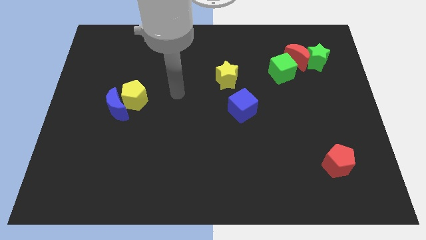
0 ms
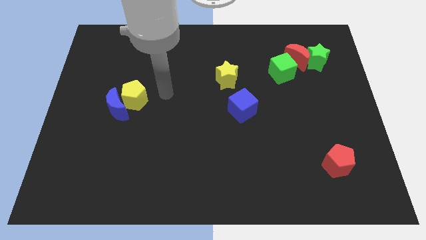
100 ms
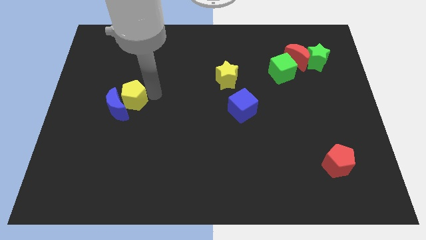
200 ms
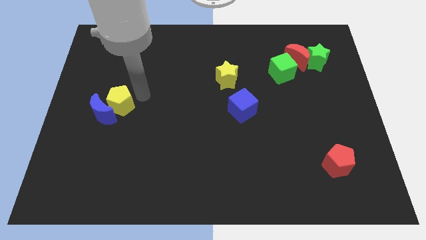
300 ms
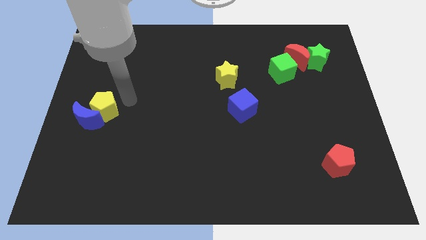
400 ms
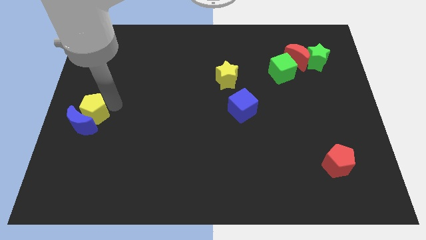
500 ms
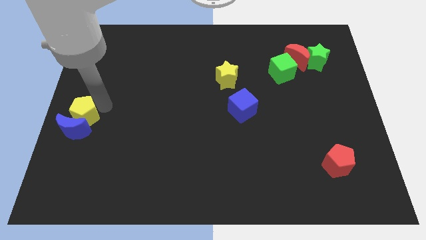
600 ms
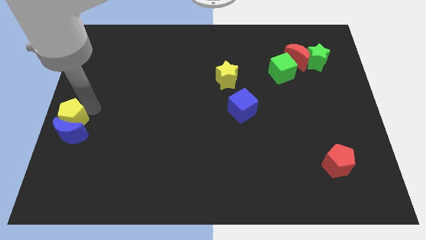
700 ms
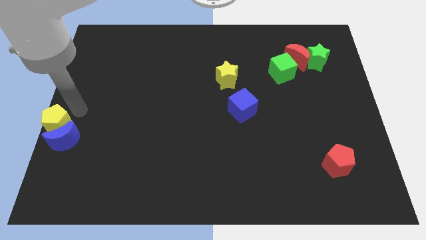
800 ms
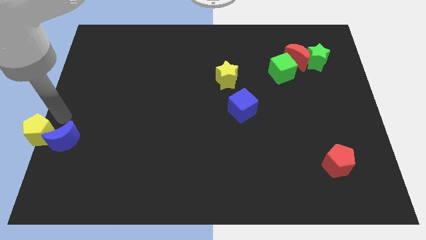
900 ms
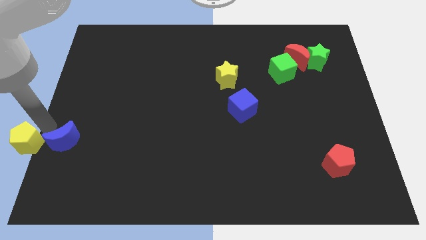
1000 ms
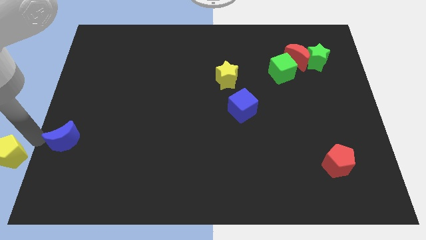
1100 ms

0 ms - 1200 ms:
move the blue moon away from the yellow pentagon

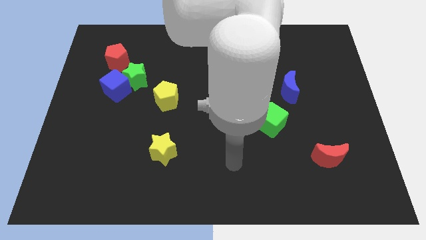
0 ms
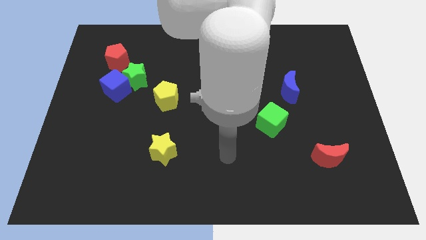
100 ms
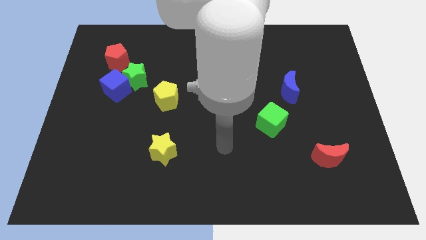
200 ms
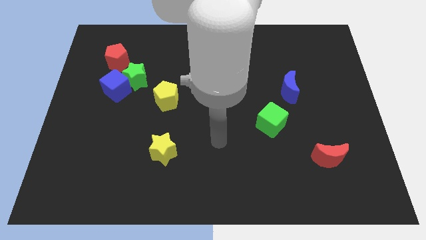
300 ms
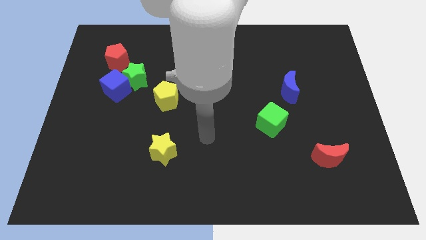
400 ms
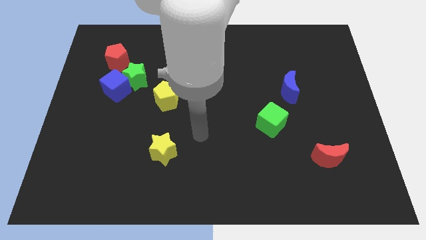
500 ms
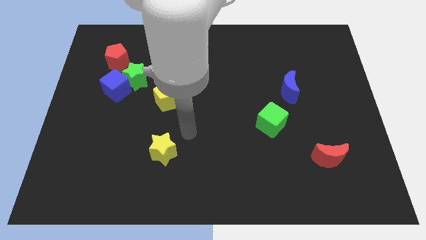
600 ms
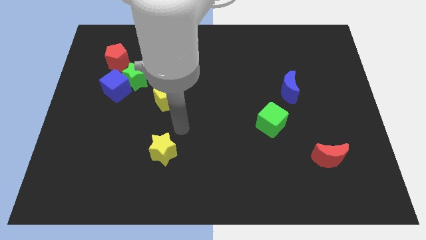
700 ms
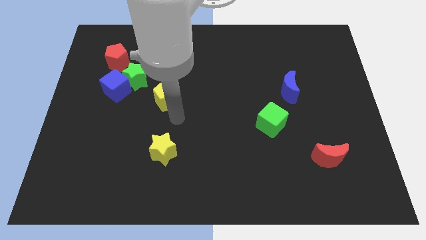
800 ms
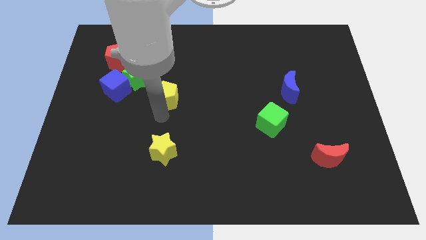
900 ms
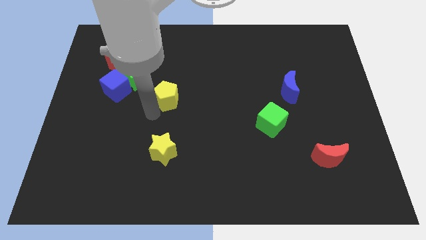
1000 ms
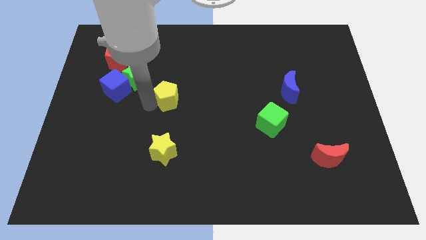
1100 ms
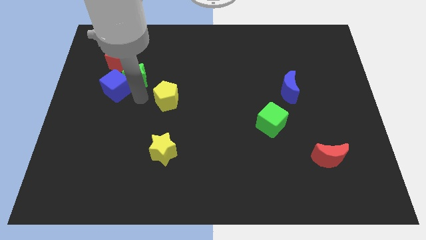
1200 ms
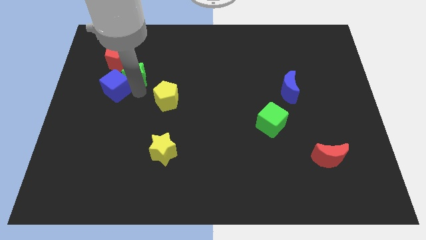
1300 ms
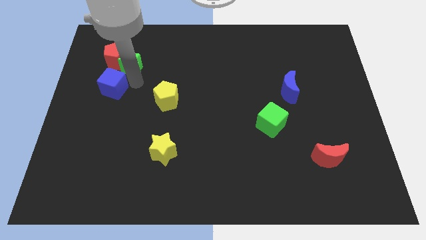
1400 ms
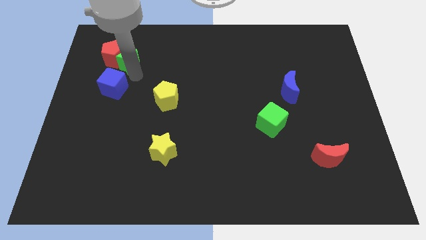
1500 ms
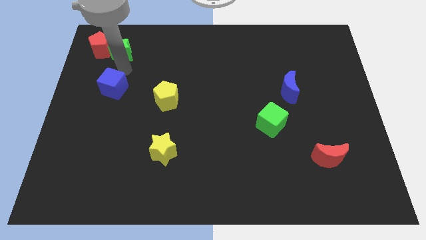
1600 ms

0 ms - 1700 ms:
pull the blue cube apart from the green star and red pentagon

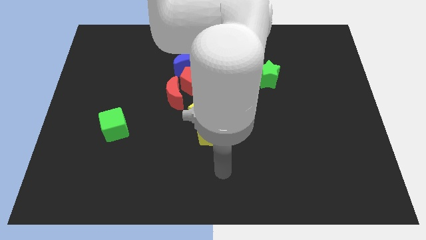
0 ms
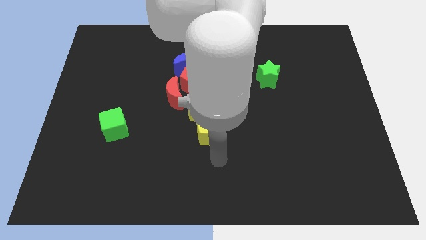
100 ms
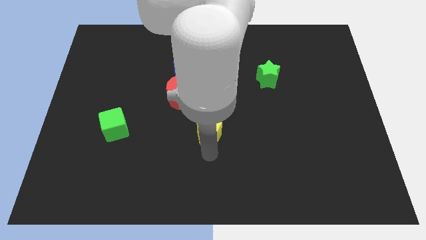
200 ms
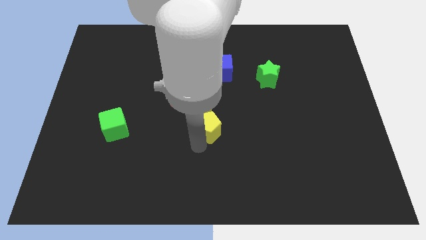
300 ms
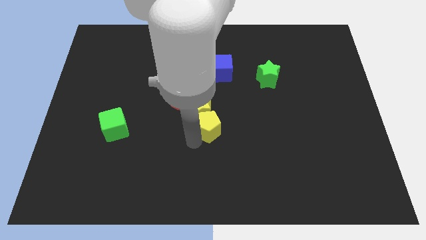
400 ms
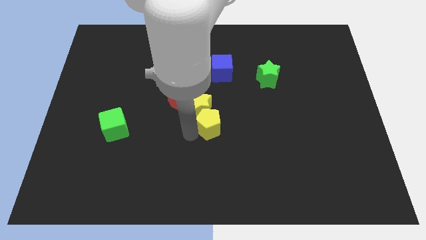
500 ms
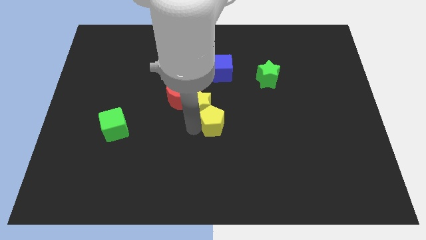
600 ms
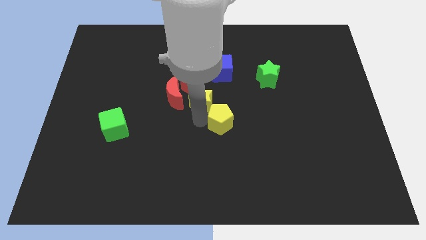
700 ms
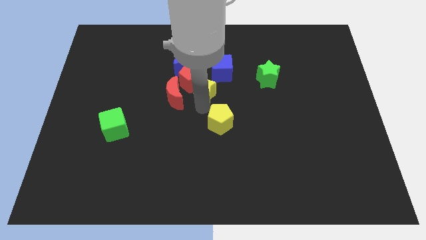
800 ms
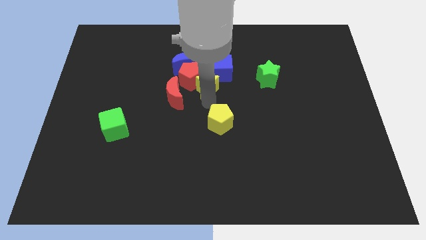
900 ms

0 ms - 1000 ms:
separate the yellow pentagon from the yellow star

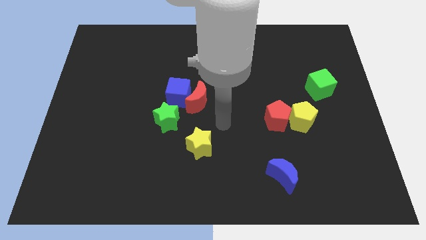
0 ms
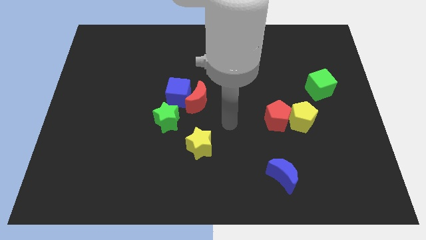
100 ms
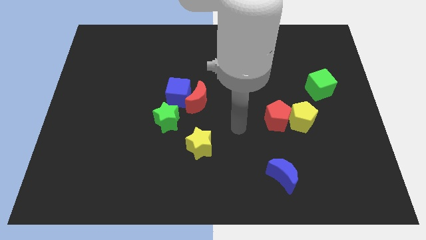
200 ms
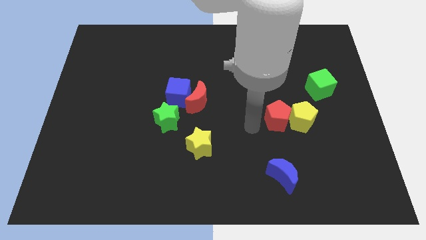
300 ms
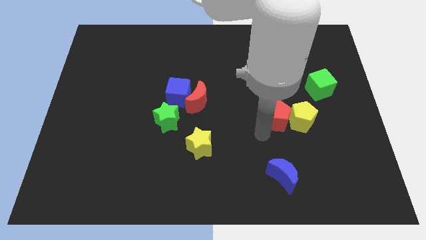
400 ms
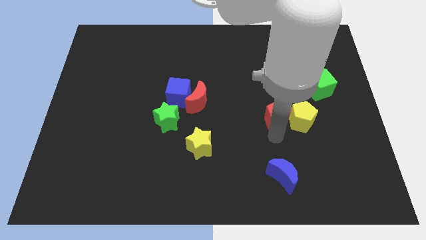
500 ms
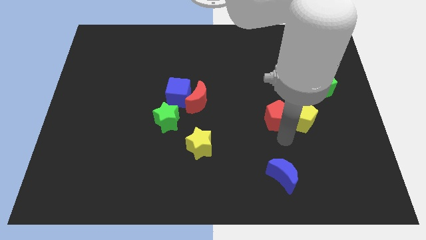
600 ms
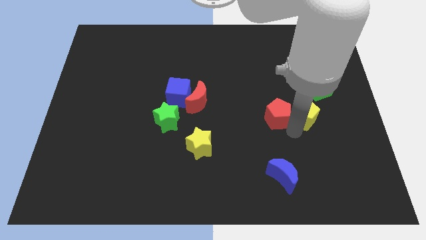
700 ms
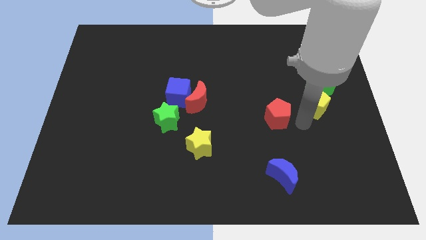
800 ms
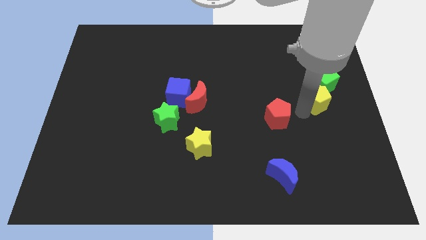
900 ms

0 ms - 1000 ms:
separate the red pentagon from the yellow pentagon

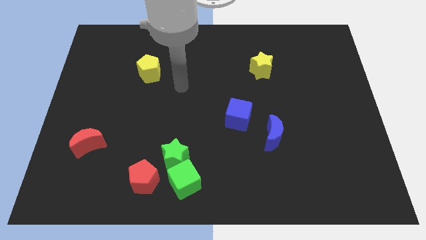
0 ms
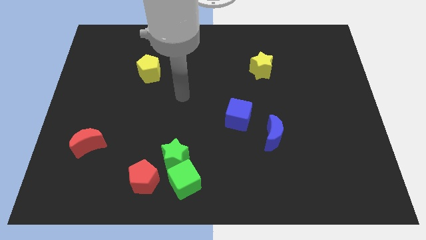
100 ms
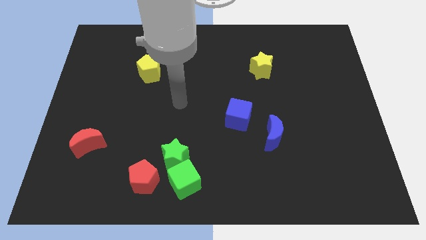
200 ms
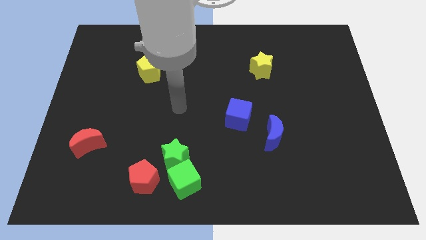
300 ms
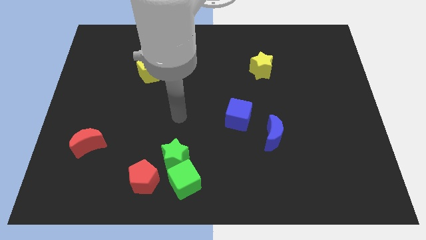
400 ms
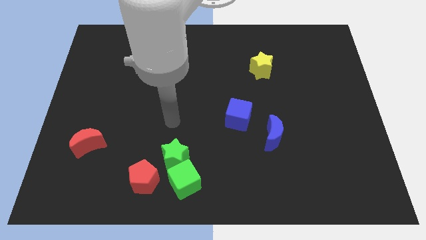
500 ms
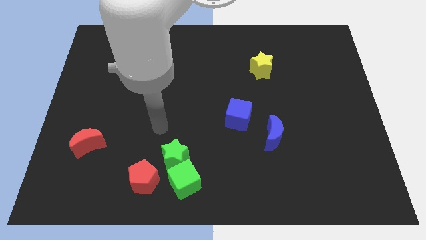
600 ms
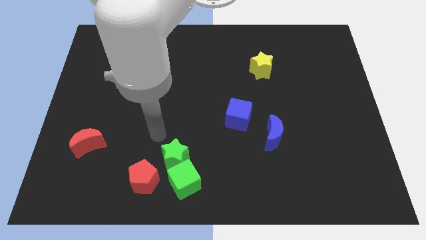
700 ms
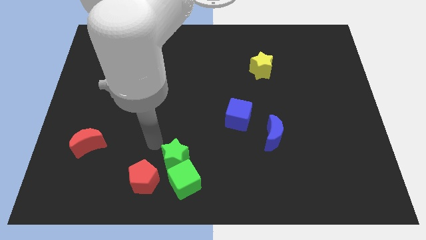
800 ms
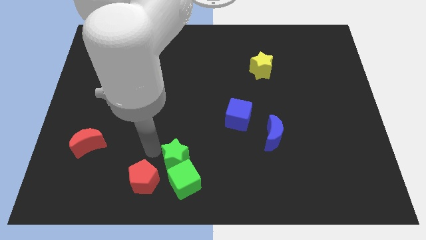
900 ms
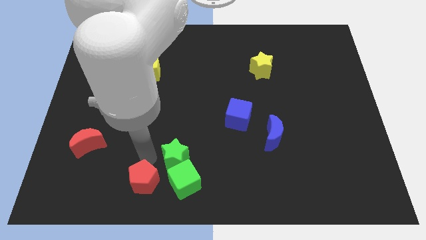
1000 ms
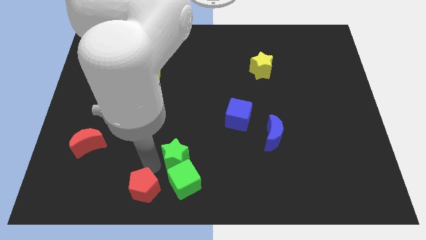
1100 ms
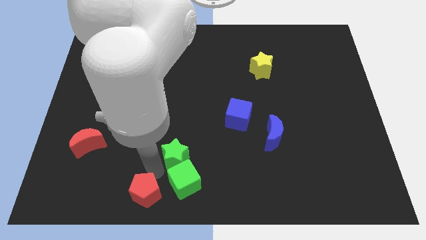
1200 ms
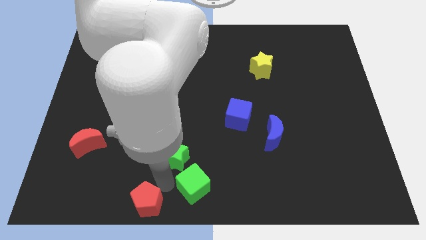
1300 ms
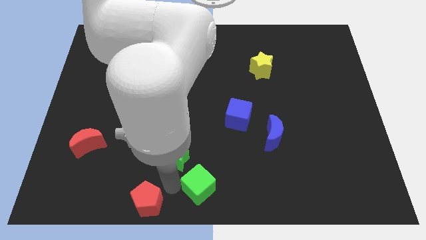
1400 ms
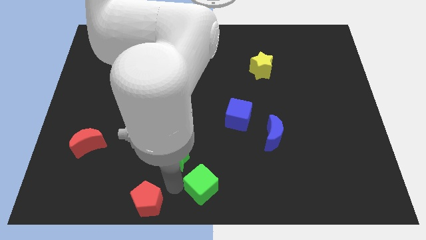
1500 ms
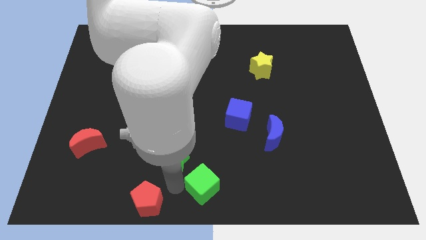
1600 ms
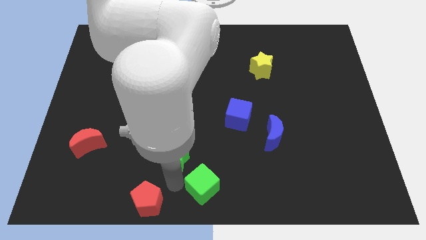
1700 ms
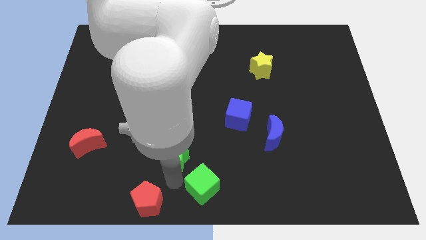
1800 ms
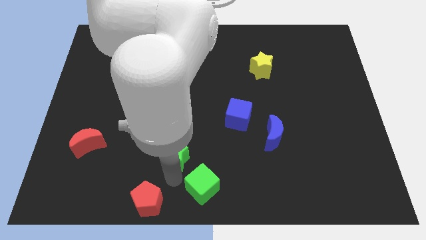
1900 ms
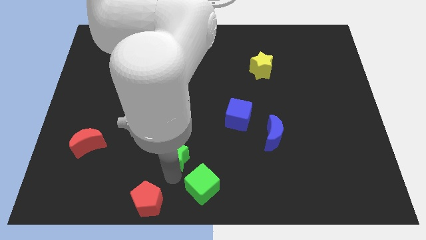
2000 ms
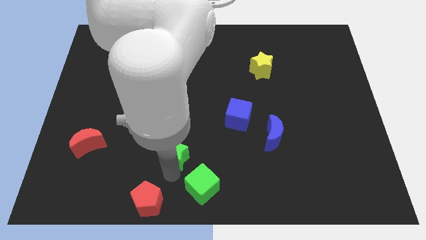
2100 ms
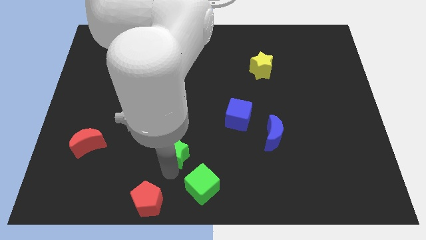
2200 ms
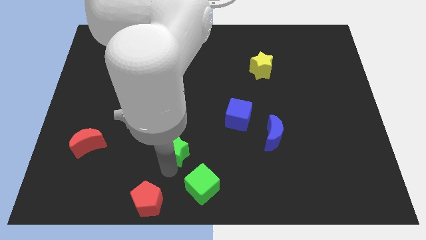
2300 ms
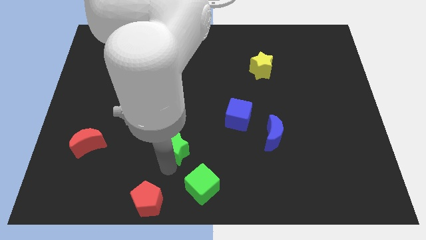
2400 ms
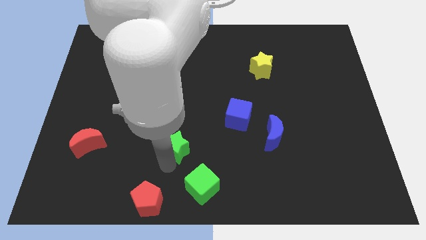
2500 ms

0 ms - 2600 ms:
separate the green star from the green cube and red pentagon

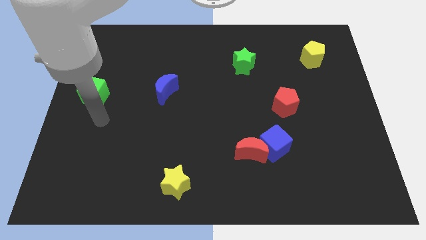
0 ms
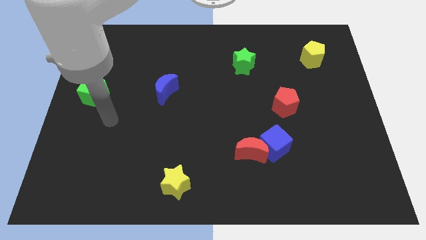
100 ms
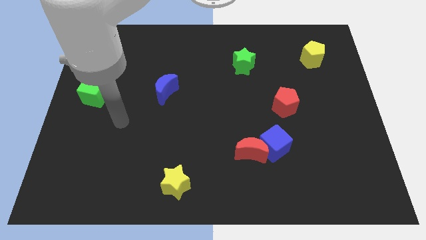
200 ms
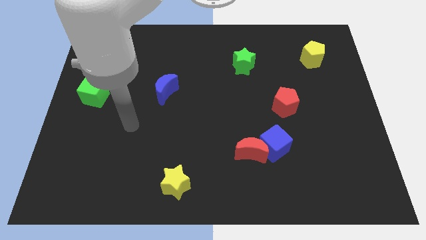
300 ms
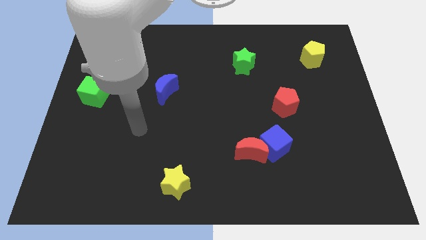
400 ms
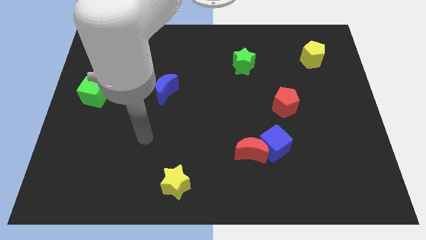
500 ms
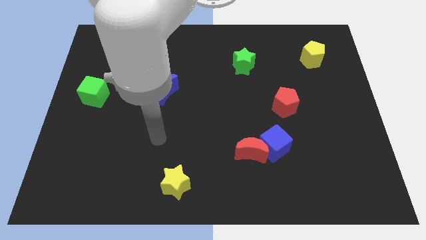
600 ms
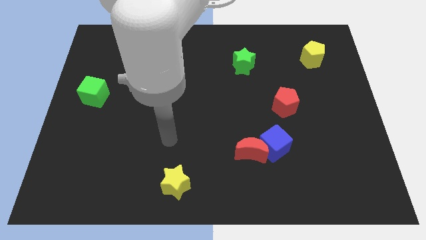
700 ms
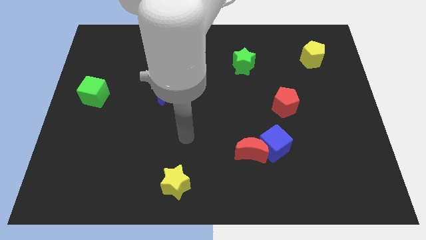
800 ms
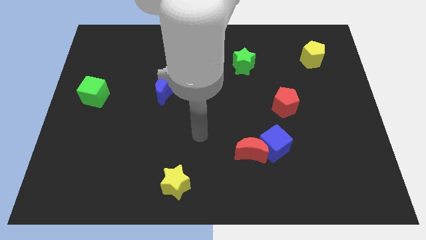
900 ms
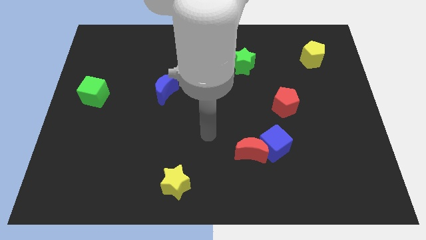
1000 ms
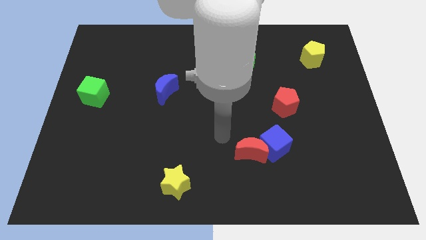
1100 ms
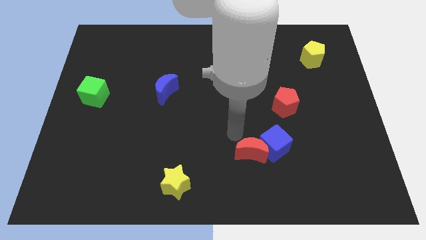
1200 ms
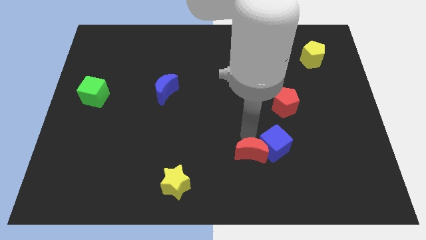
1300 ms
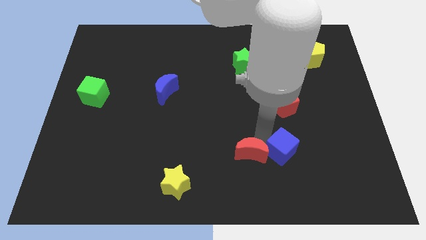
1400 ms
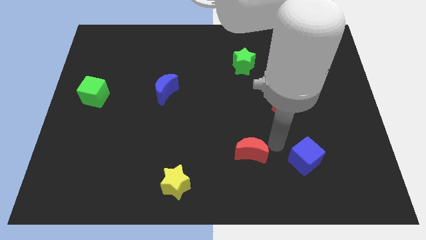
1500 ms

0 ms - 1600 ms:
move the red moon away from the blue cube
